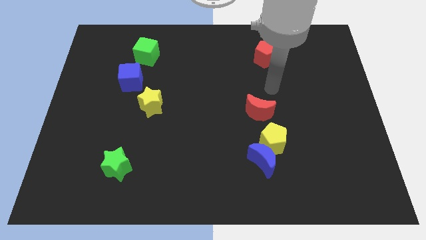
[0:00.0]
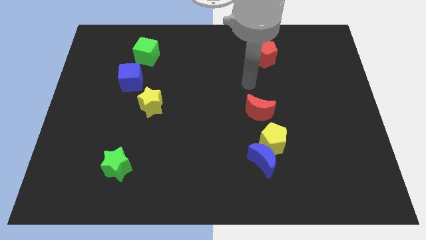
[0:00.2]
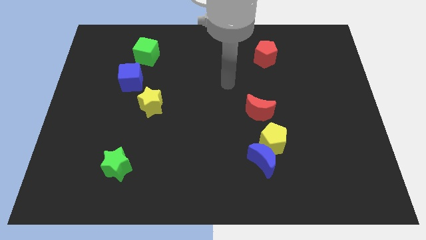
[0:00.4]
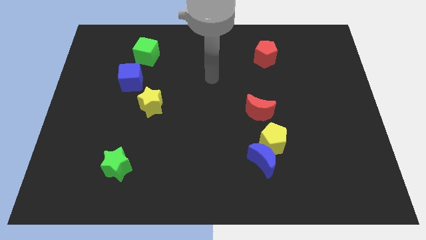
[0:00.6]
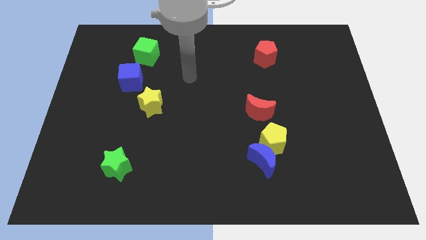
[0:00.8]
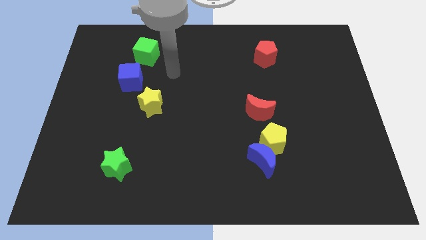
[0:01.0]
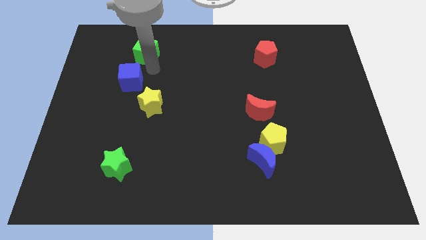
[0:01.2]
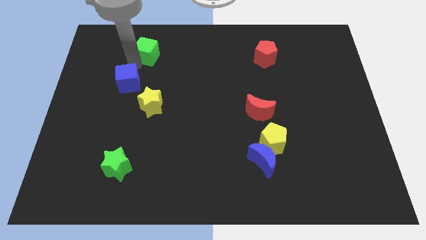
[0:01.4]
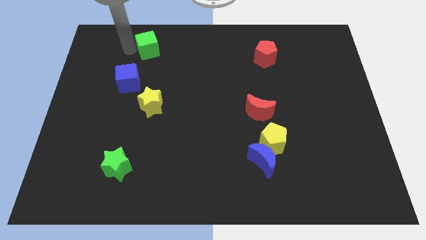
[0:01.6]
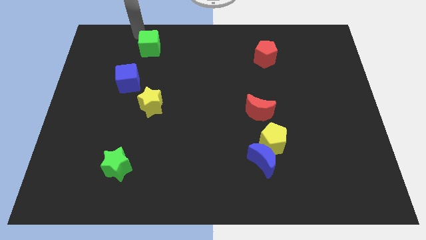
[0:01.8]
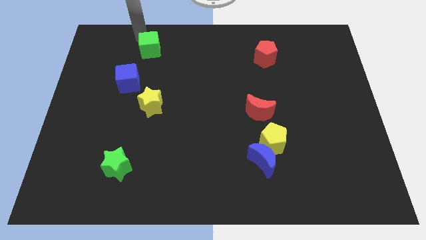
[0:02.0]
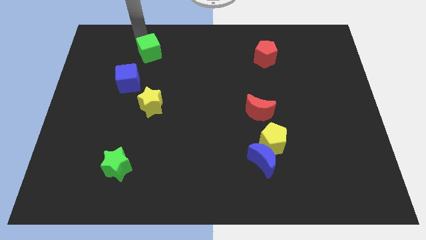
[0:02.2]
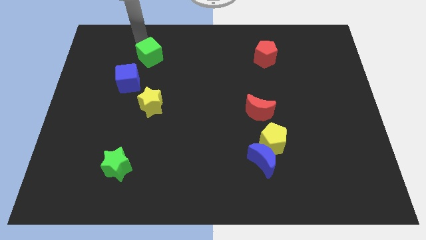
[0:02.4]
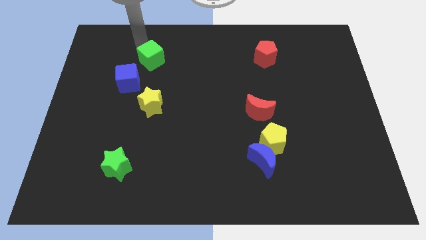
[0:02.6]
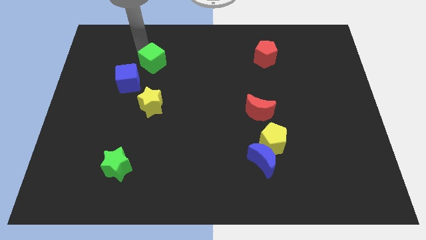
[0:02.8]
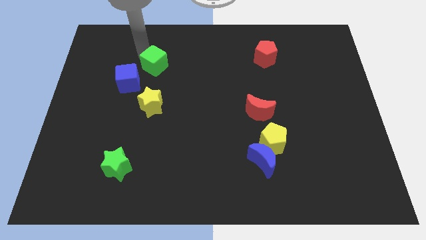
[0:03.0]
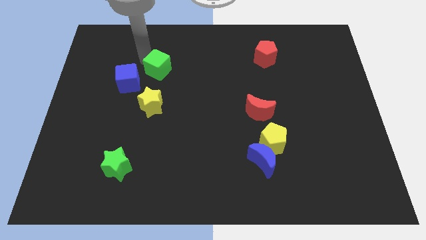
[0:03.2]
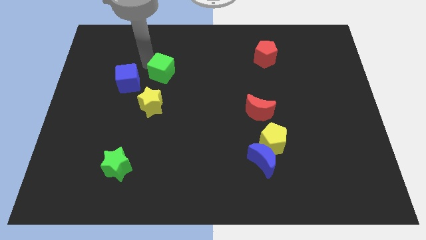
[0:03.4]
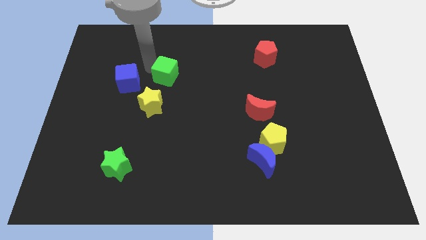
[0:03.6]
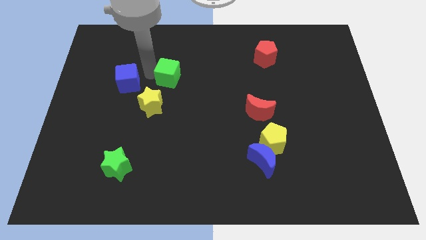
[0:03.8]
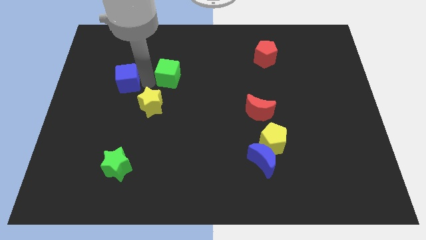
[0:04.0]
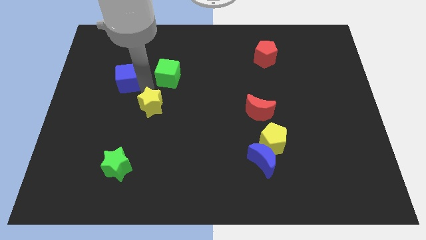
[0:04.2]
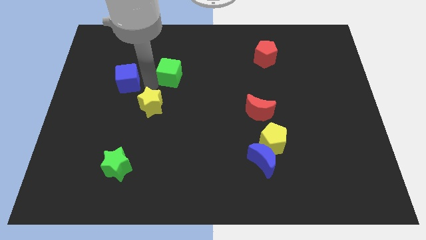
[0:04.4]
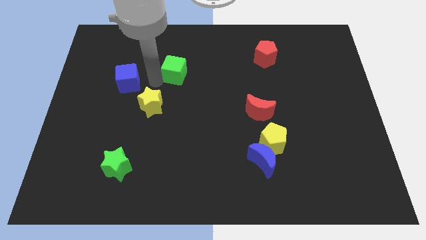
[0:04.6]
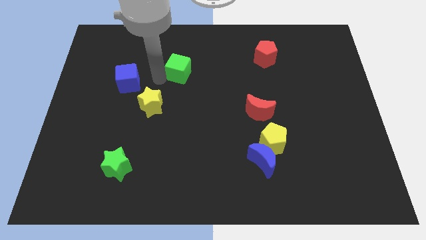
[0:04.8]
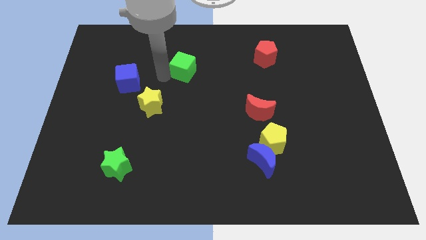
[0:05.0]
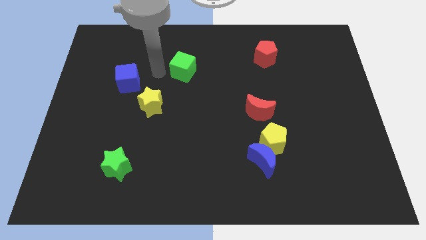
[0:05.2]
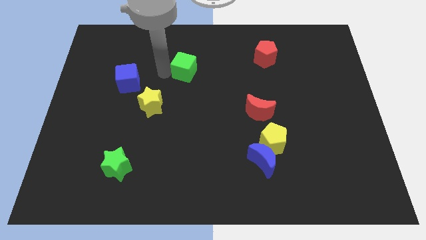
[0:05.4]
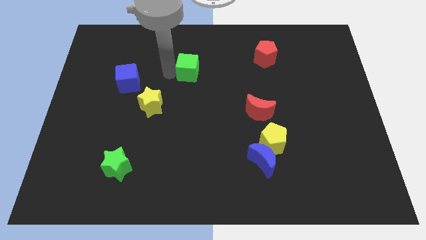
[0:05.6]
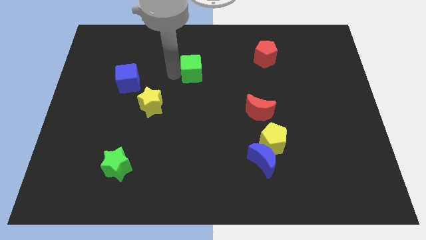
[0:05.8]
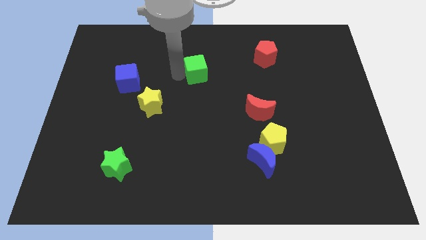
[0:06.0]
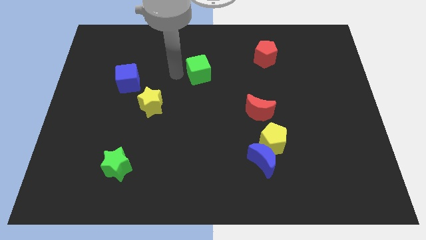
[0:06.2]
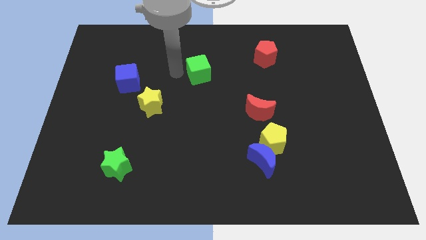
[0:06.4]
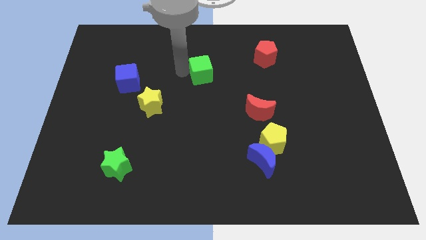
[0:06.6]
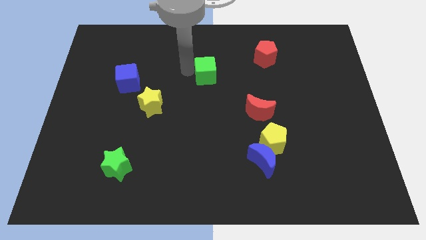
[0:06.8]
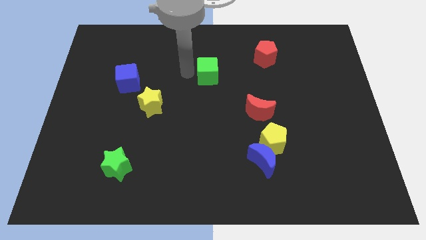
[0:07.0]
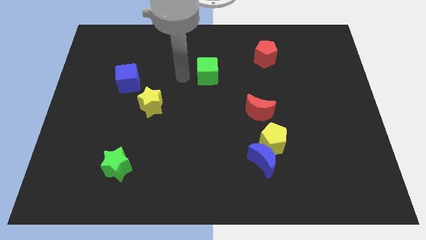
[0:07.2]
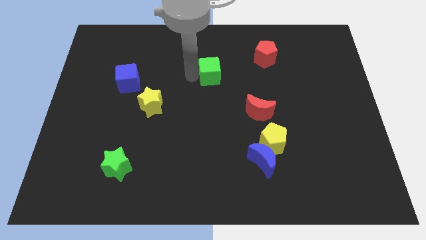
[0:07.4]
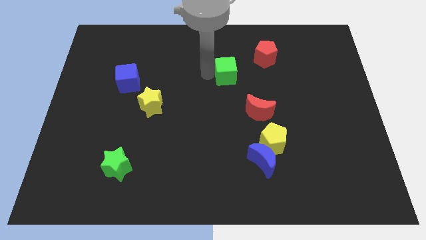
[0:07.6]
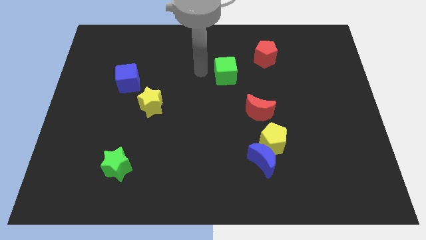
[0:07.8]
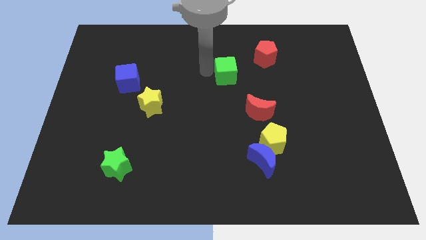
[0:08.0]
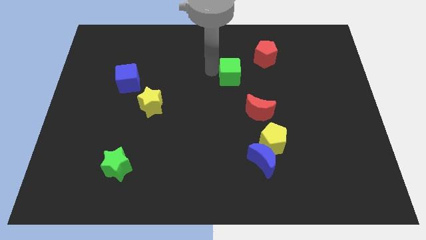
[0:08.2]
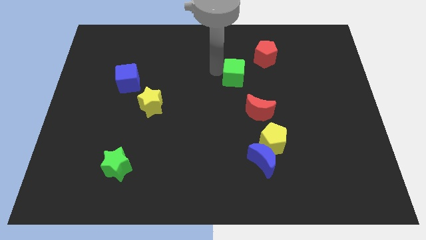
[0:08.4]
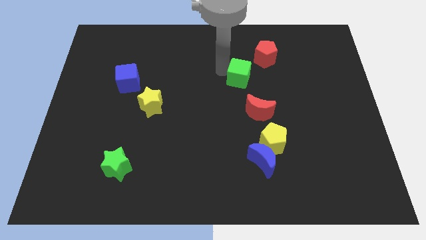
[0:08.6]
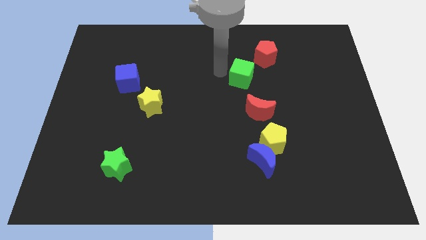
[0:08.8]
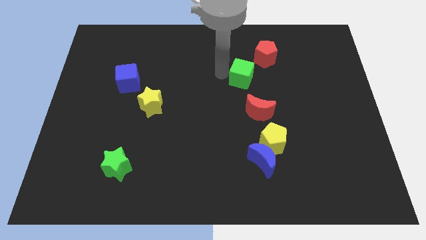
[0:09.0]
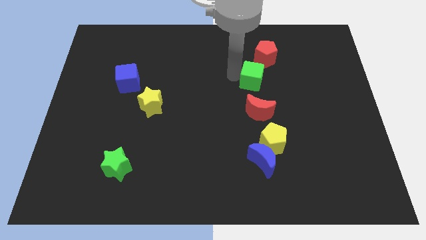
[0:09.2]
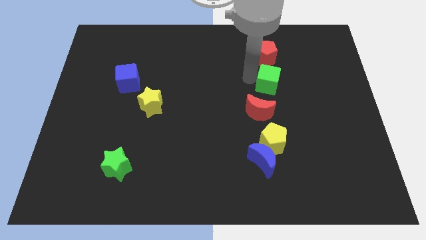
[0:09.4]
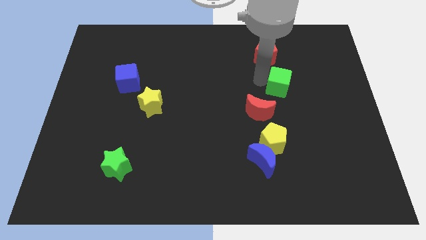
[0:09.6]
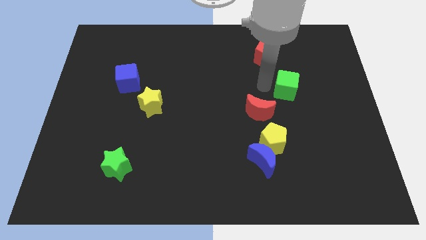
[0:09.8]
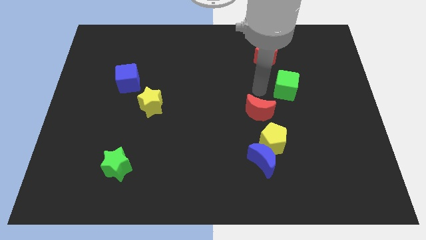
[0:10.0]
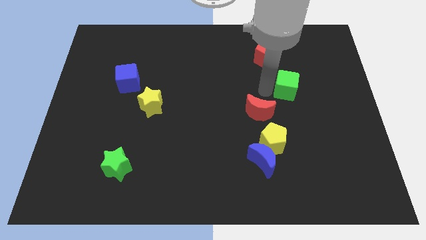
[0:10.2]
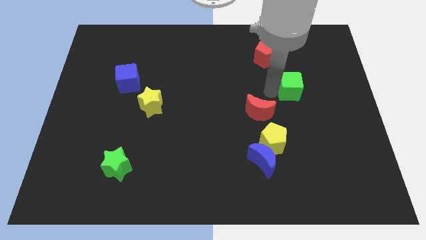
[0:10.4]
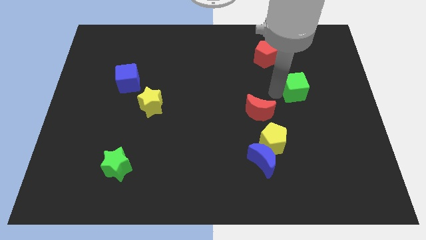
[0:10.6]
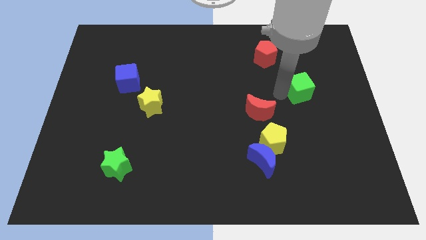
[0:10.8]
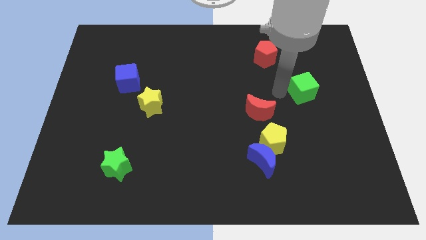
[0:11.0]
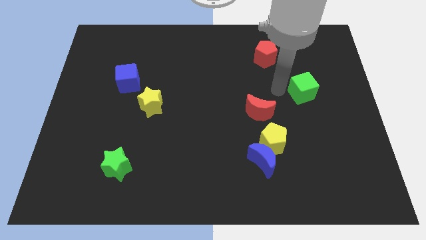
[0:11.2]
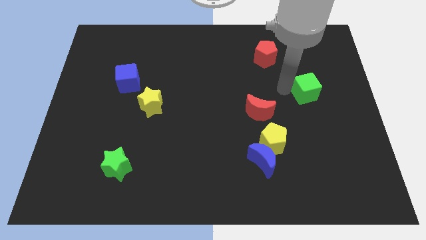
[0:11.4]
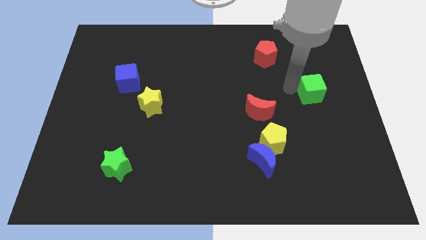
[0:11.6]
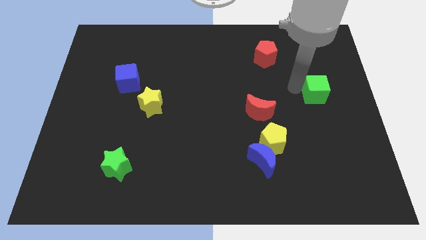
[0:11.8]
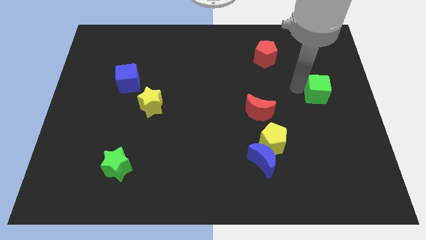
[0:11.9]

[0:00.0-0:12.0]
slide the green cube to the center right

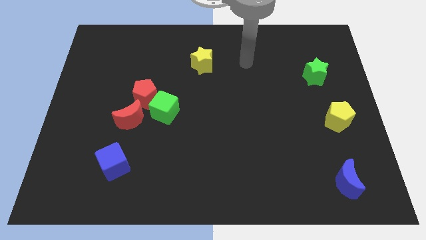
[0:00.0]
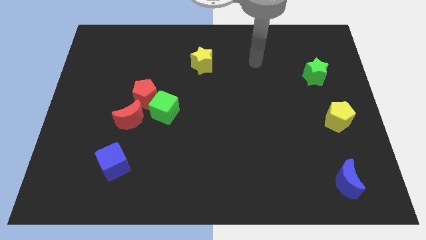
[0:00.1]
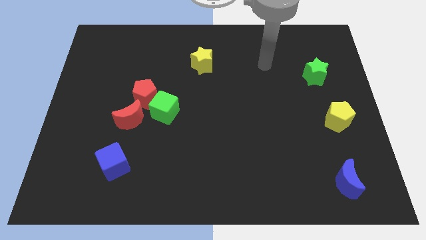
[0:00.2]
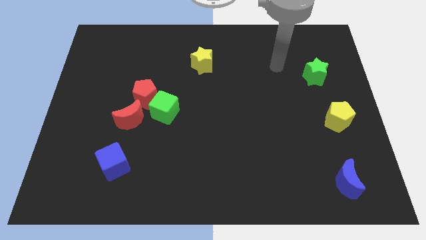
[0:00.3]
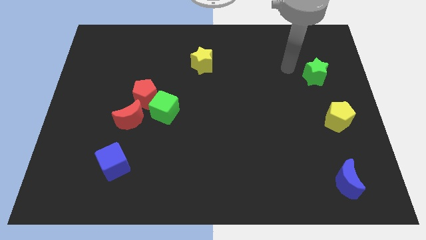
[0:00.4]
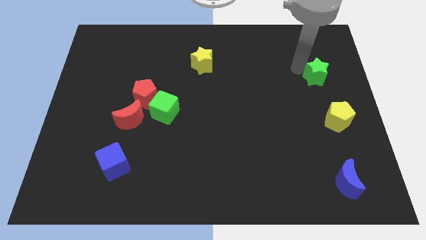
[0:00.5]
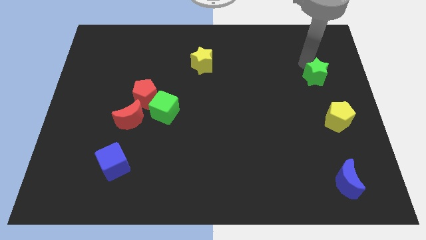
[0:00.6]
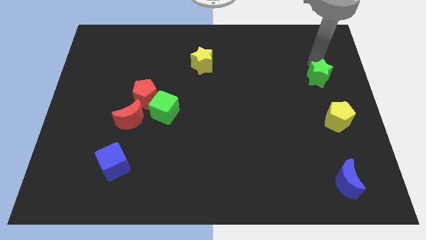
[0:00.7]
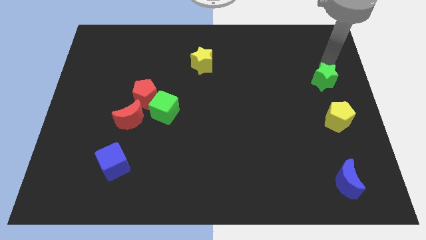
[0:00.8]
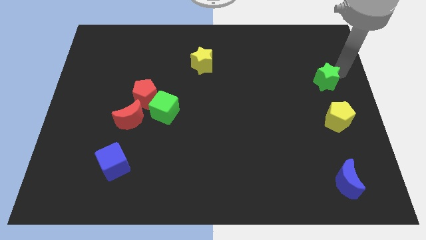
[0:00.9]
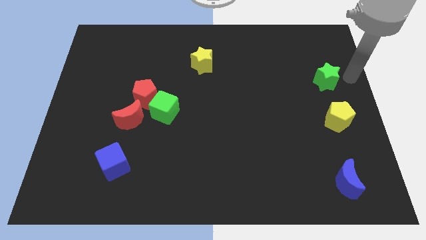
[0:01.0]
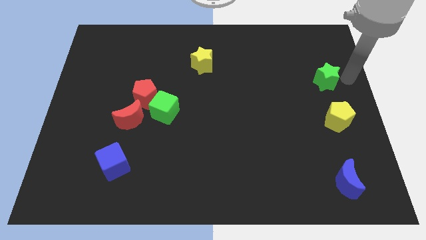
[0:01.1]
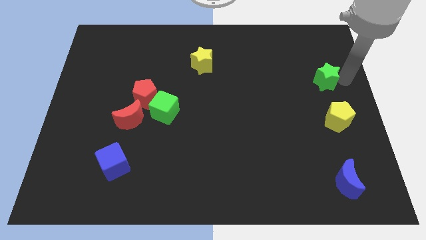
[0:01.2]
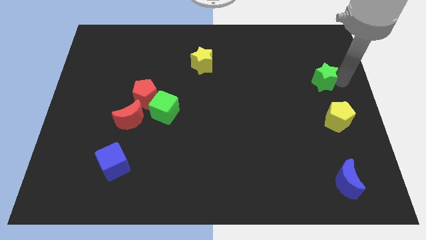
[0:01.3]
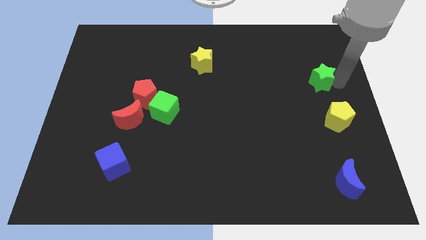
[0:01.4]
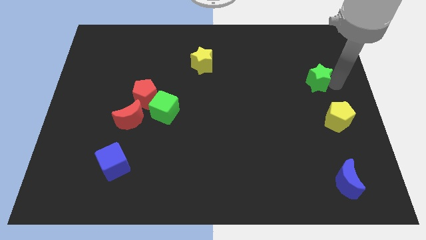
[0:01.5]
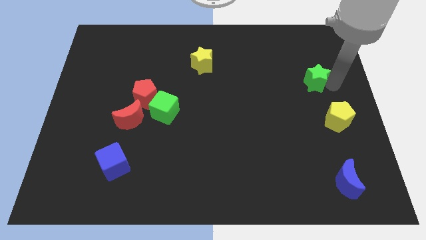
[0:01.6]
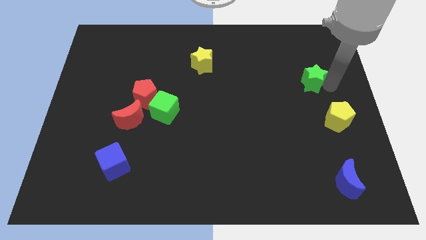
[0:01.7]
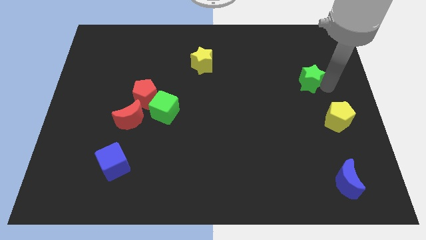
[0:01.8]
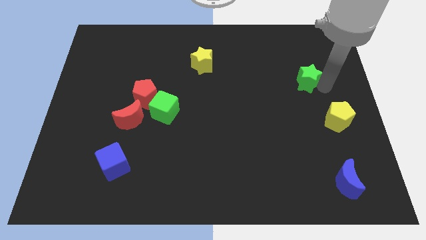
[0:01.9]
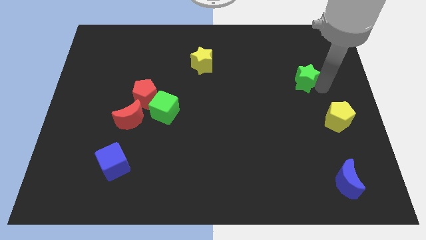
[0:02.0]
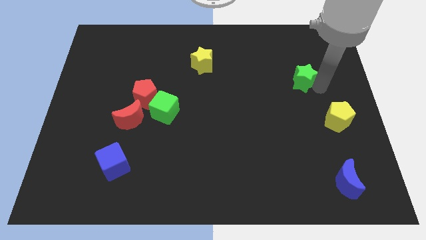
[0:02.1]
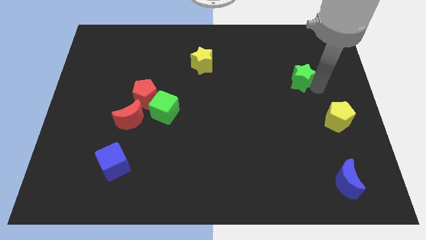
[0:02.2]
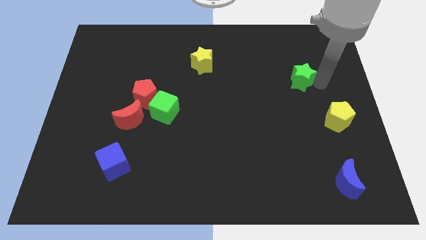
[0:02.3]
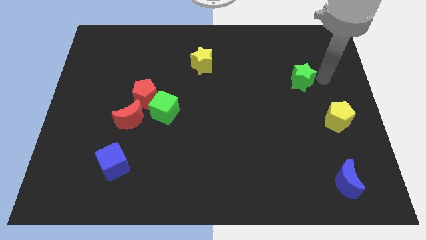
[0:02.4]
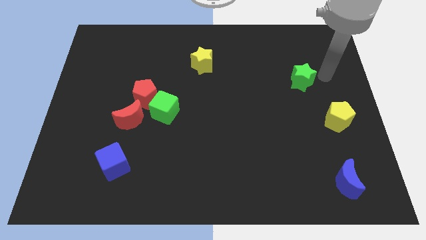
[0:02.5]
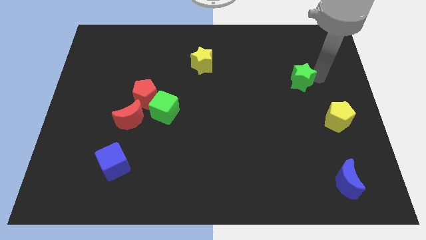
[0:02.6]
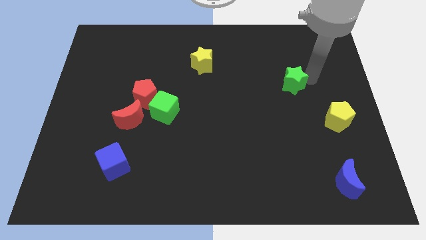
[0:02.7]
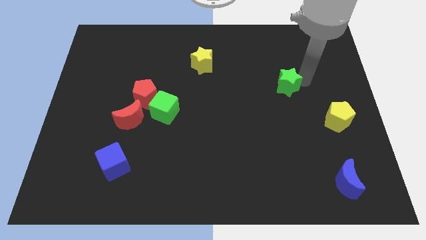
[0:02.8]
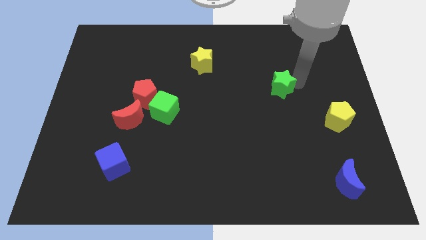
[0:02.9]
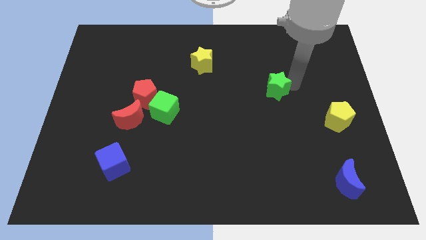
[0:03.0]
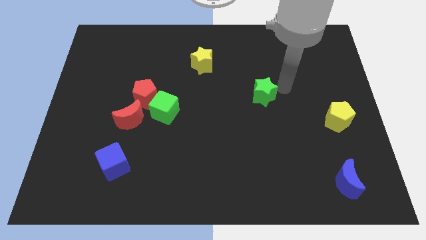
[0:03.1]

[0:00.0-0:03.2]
put the green star to the center
